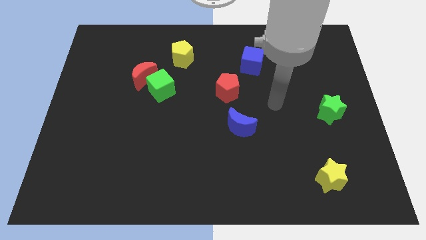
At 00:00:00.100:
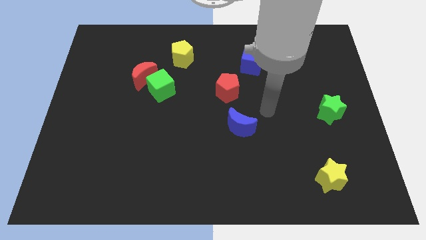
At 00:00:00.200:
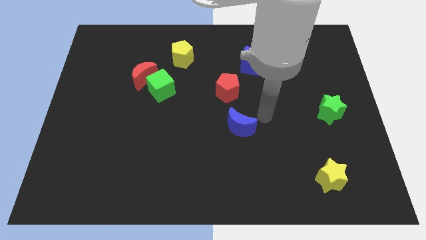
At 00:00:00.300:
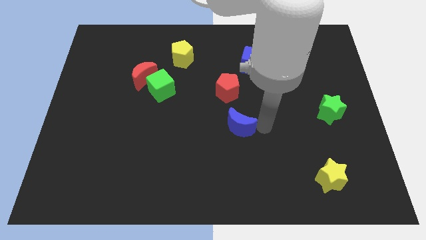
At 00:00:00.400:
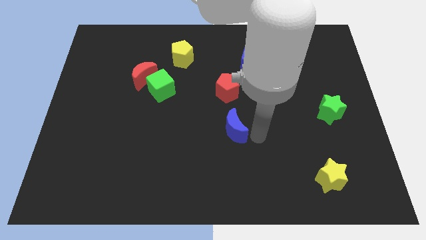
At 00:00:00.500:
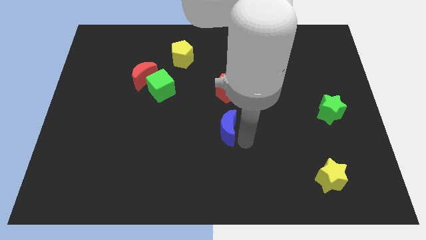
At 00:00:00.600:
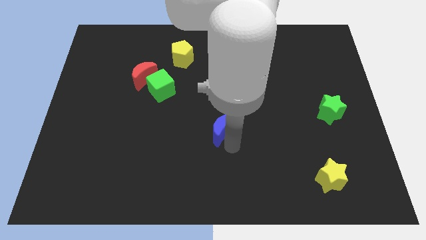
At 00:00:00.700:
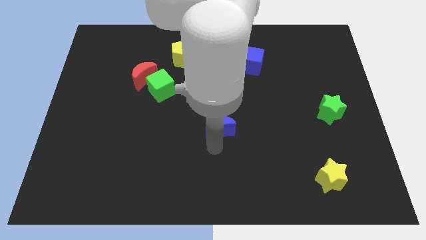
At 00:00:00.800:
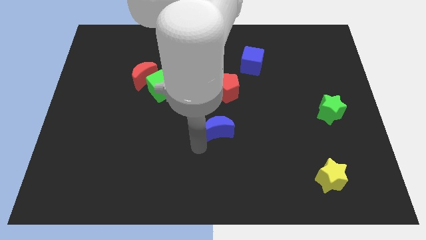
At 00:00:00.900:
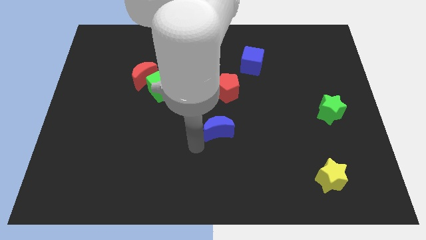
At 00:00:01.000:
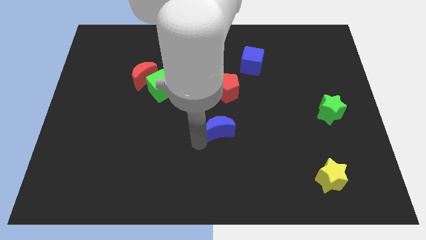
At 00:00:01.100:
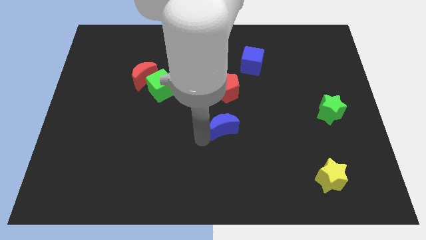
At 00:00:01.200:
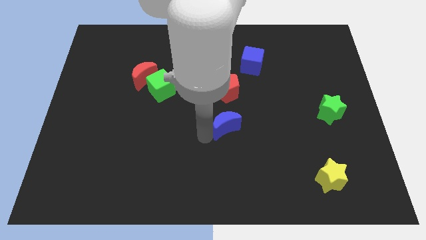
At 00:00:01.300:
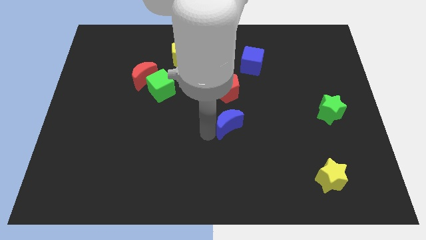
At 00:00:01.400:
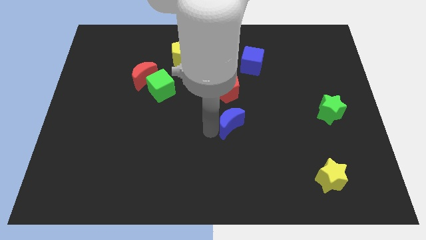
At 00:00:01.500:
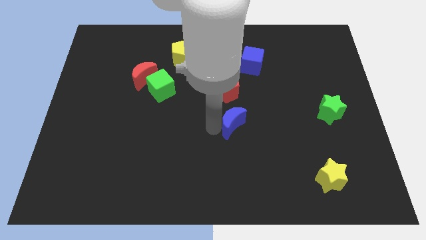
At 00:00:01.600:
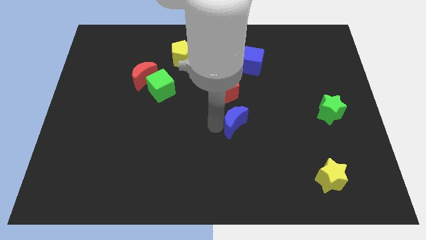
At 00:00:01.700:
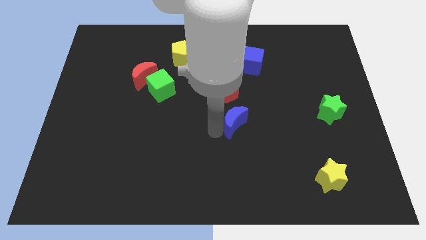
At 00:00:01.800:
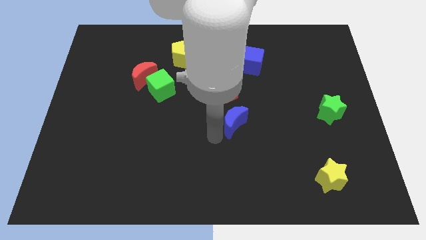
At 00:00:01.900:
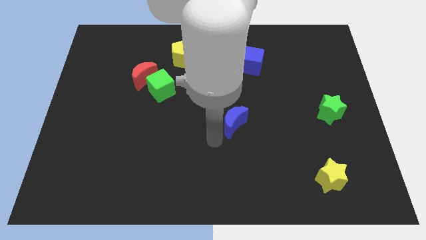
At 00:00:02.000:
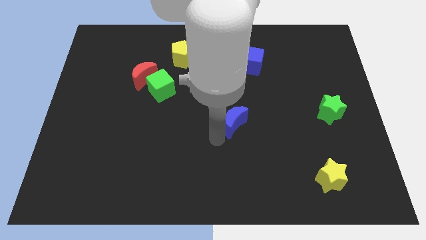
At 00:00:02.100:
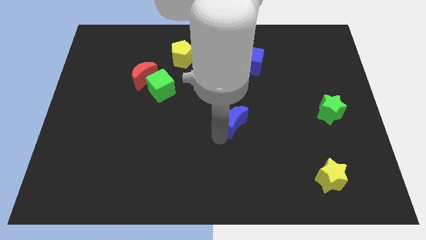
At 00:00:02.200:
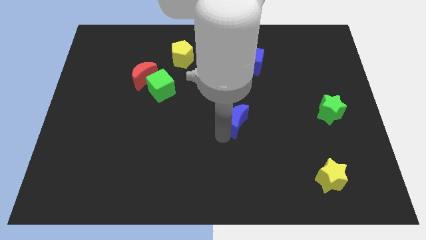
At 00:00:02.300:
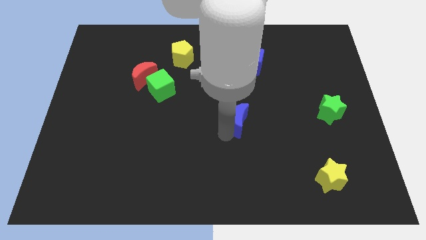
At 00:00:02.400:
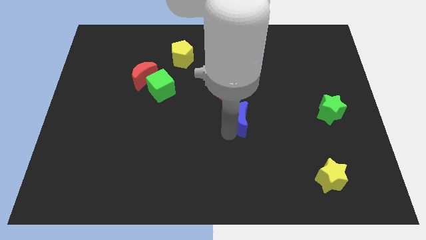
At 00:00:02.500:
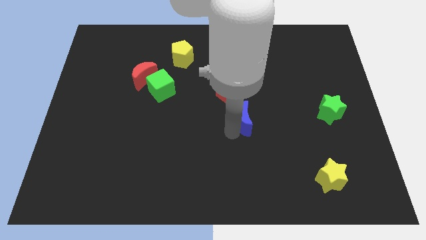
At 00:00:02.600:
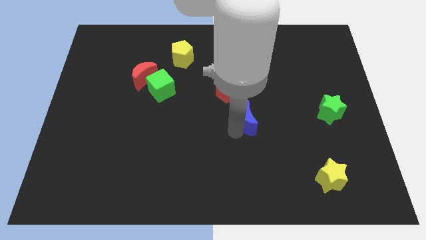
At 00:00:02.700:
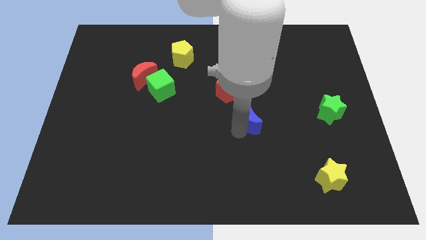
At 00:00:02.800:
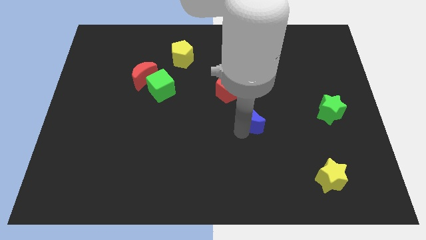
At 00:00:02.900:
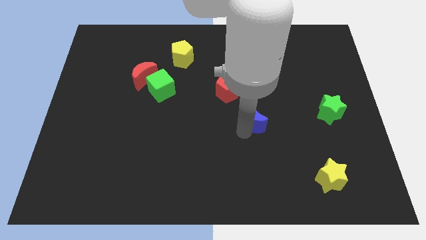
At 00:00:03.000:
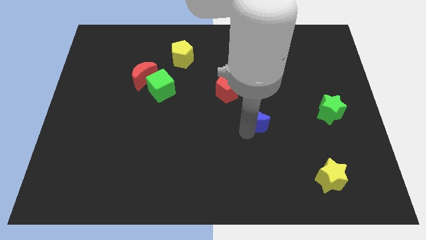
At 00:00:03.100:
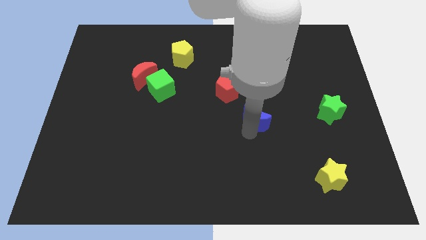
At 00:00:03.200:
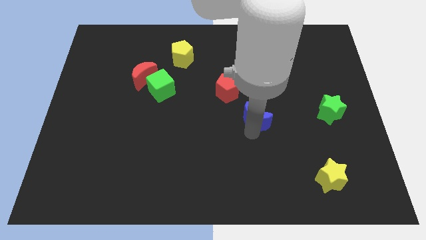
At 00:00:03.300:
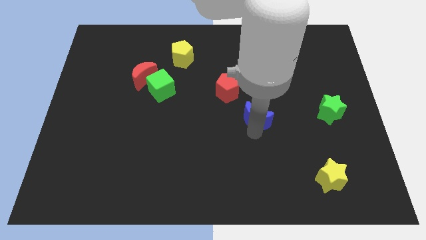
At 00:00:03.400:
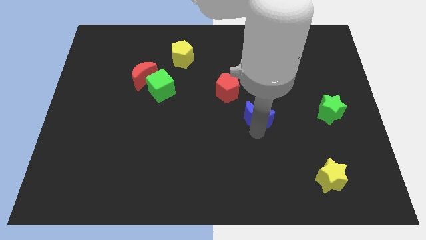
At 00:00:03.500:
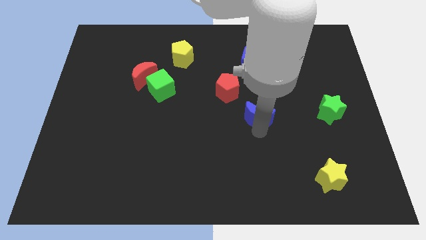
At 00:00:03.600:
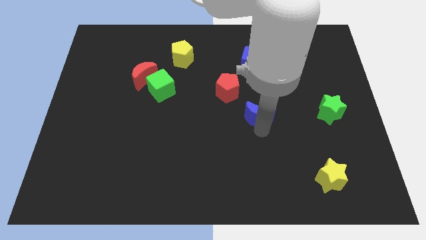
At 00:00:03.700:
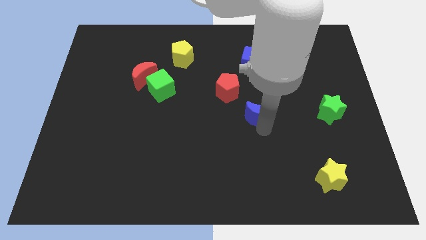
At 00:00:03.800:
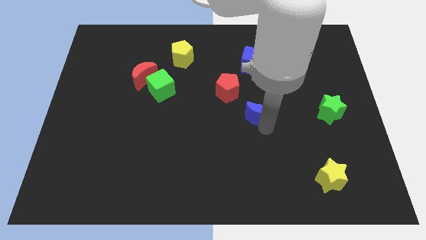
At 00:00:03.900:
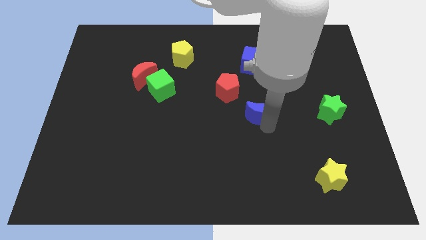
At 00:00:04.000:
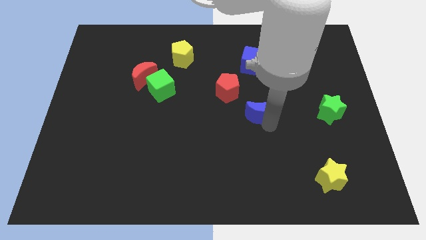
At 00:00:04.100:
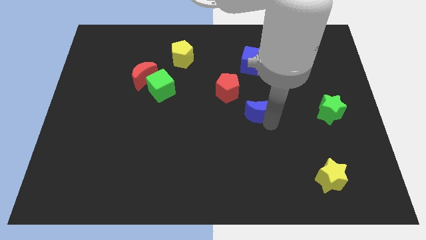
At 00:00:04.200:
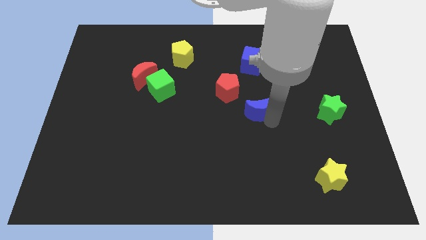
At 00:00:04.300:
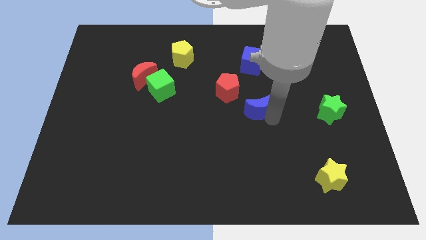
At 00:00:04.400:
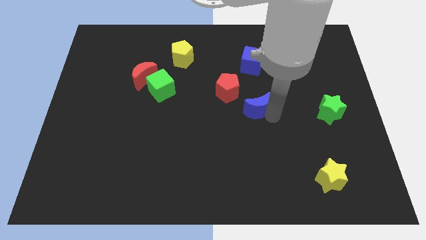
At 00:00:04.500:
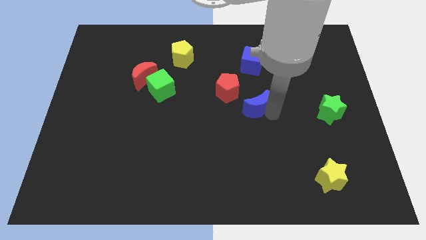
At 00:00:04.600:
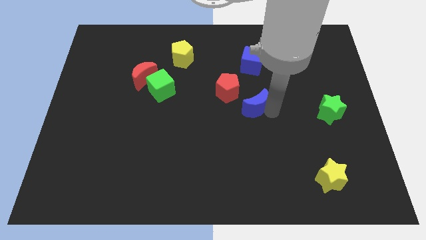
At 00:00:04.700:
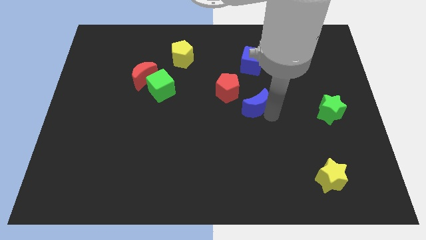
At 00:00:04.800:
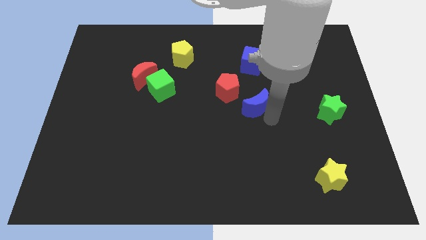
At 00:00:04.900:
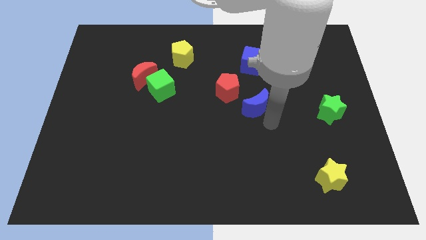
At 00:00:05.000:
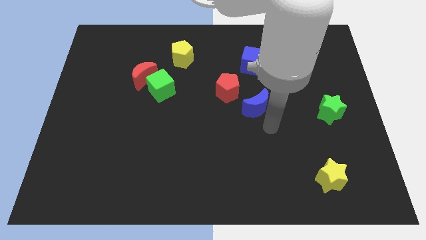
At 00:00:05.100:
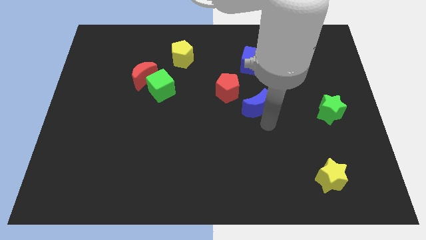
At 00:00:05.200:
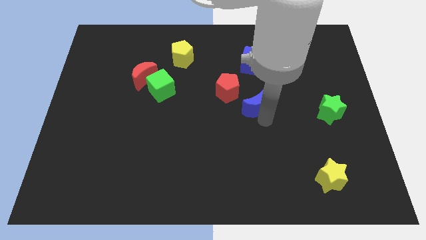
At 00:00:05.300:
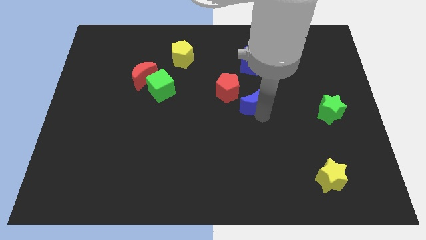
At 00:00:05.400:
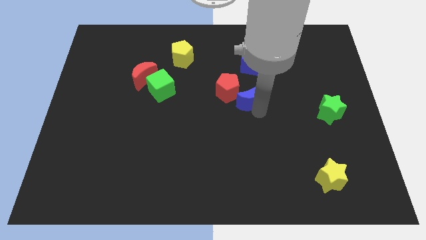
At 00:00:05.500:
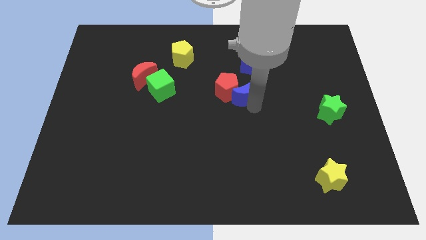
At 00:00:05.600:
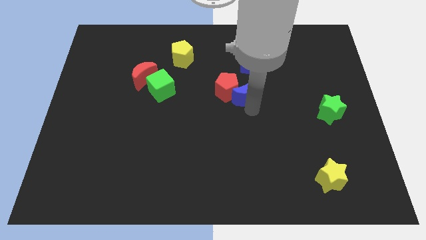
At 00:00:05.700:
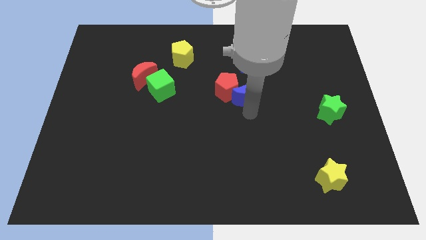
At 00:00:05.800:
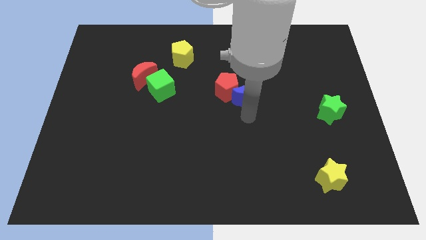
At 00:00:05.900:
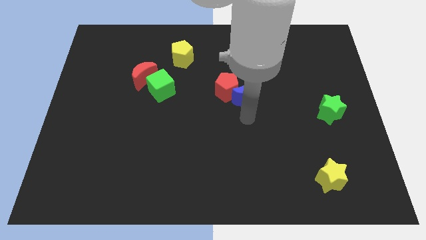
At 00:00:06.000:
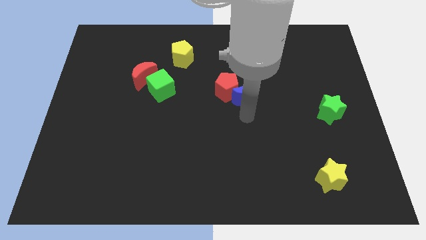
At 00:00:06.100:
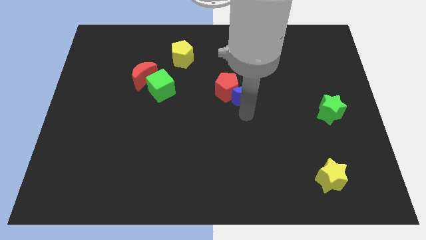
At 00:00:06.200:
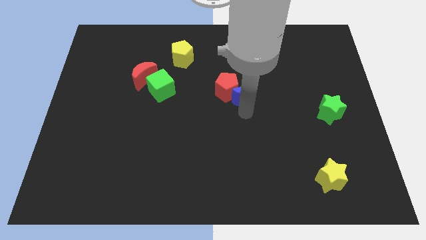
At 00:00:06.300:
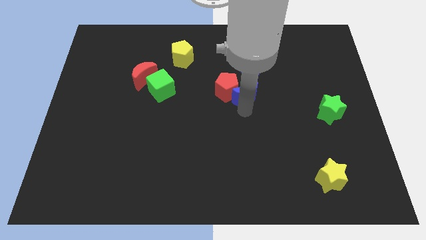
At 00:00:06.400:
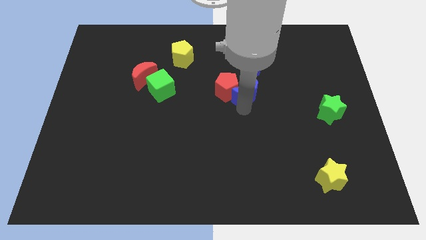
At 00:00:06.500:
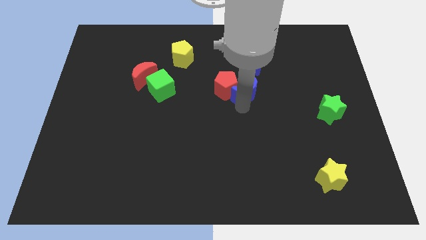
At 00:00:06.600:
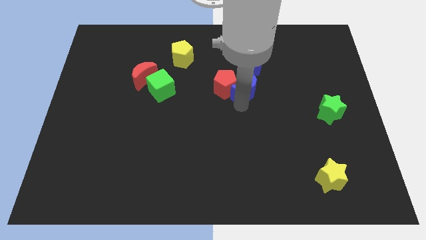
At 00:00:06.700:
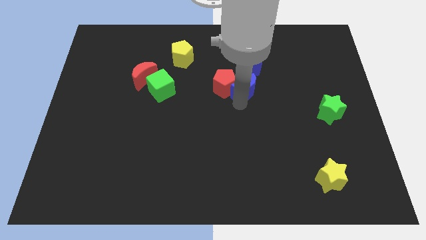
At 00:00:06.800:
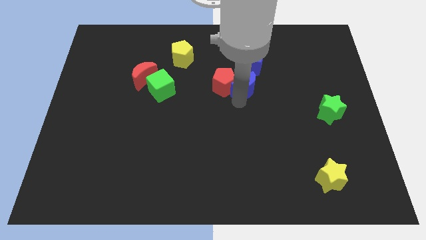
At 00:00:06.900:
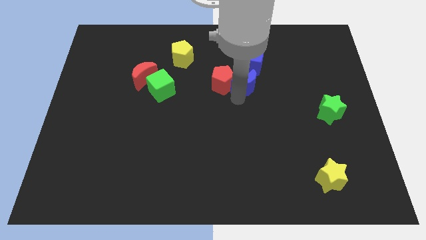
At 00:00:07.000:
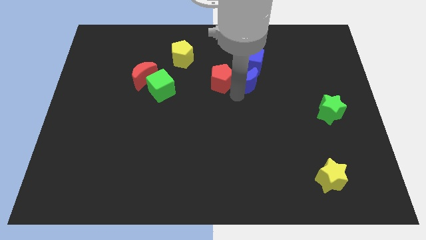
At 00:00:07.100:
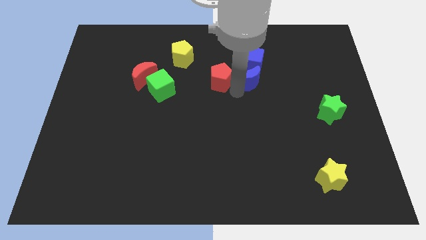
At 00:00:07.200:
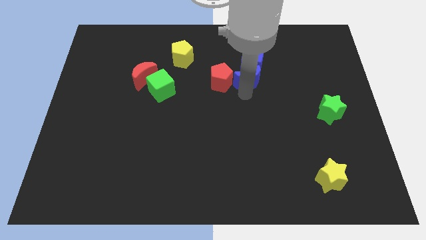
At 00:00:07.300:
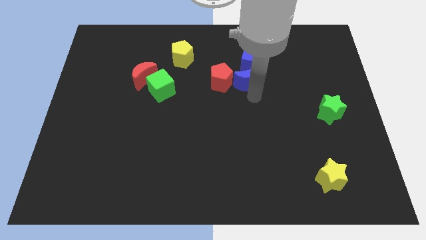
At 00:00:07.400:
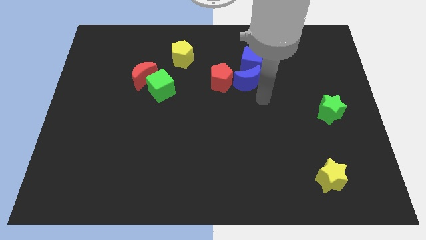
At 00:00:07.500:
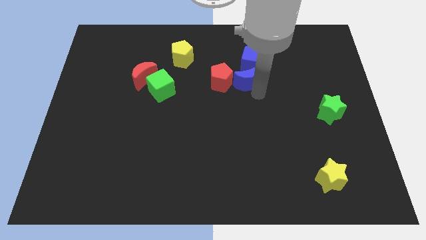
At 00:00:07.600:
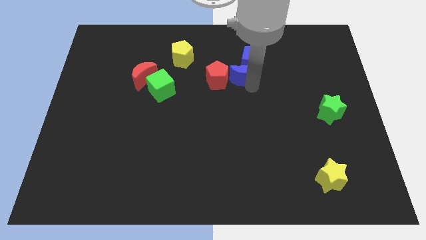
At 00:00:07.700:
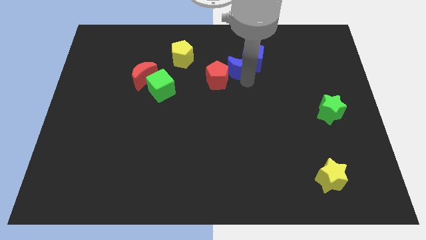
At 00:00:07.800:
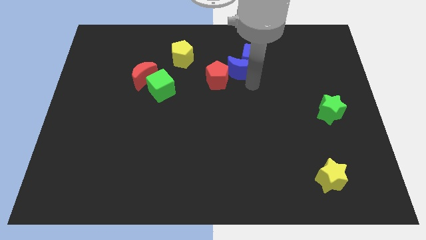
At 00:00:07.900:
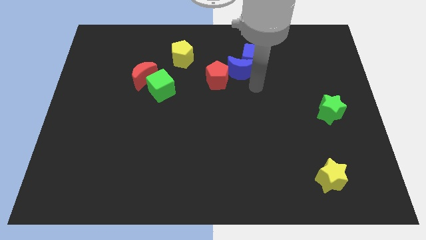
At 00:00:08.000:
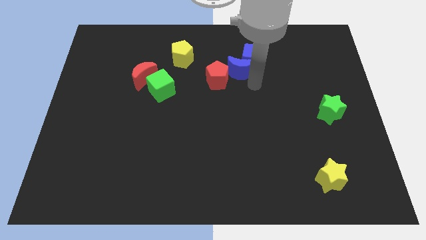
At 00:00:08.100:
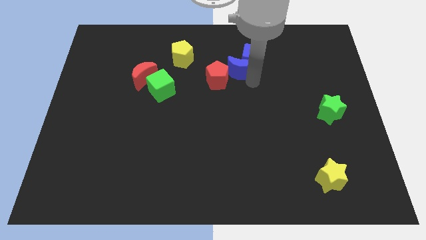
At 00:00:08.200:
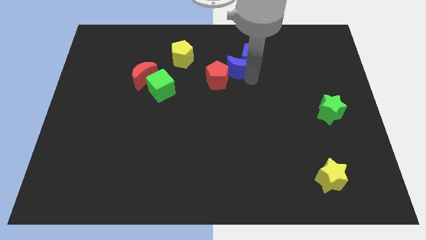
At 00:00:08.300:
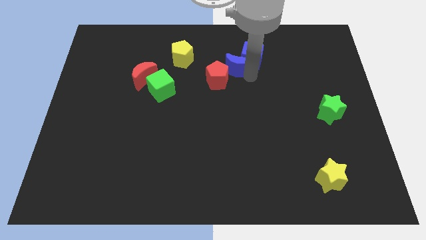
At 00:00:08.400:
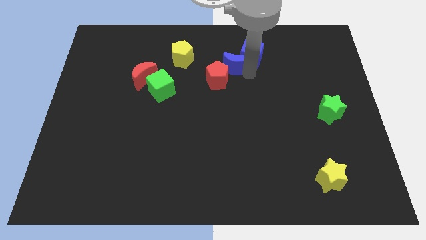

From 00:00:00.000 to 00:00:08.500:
put the blue moon above the red pentagon
